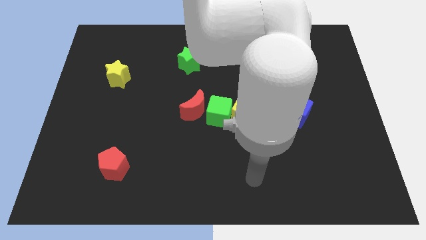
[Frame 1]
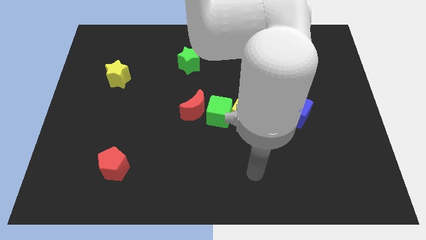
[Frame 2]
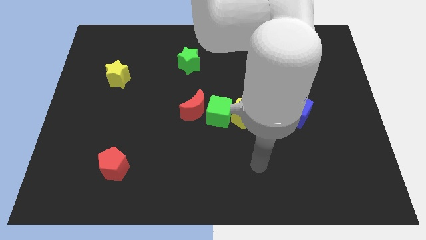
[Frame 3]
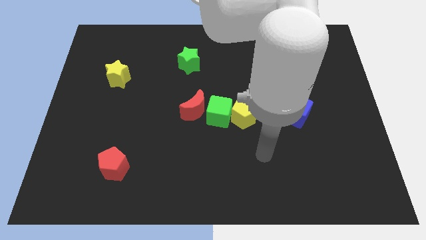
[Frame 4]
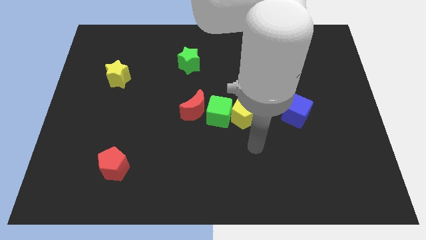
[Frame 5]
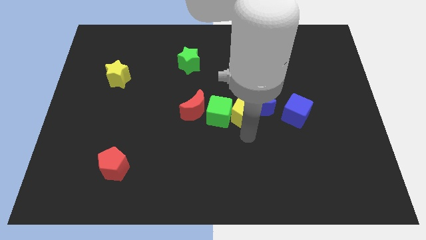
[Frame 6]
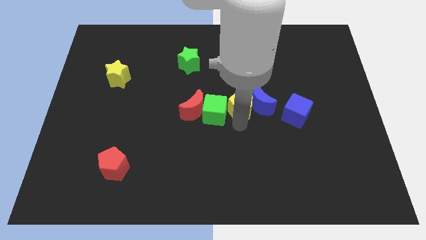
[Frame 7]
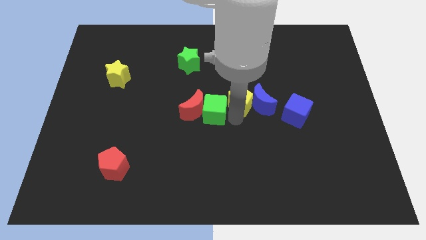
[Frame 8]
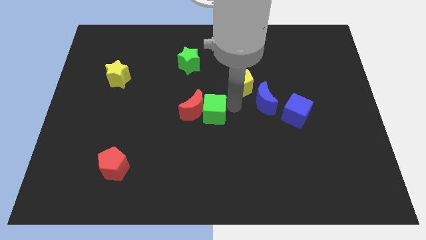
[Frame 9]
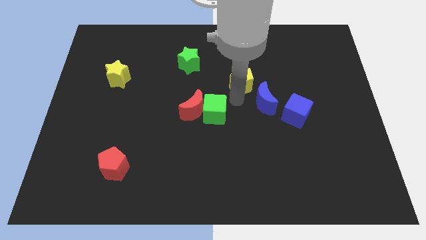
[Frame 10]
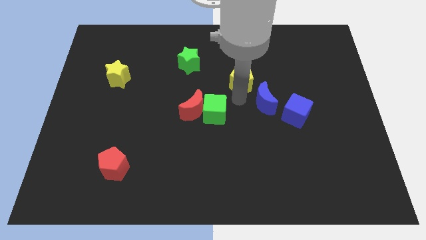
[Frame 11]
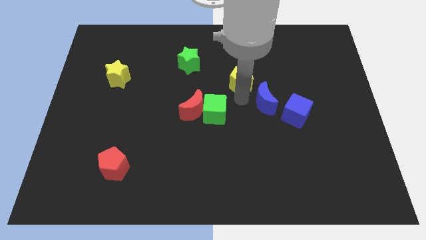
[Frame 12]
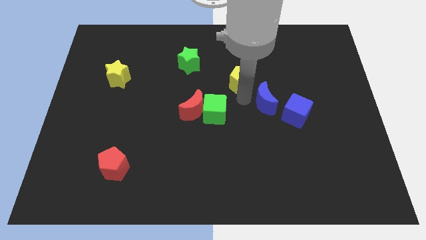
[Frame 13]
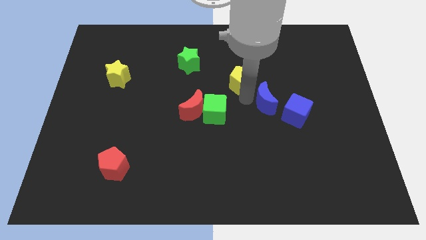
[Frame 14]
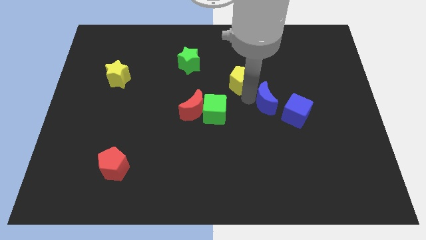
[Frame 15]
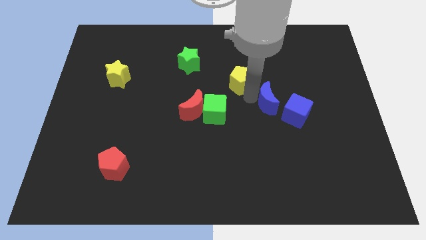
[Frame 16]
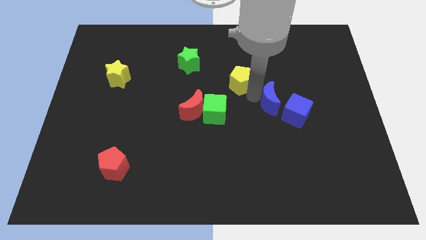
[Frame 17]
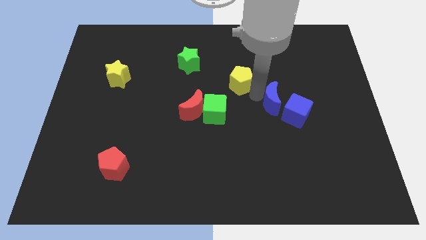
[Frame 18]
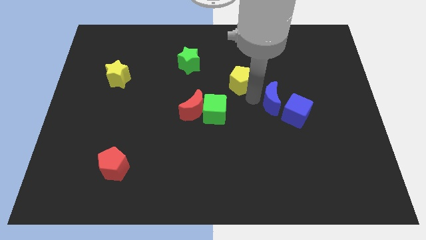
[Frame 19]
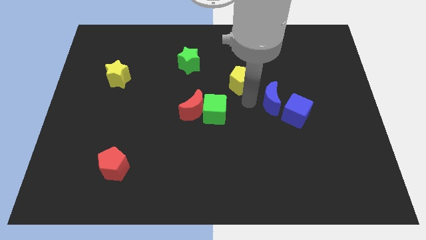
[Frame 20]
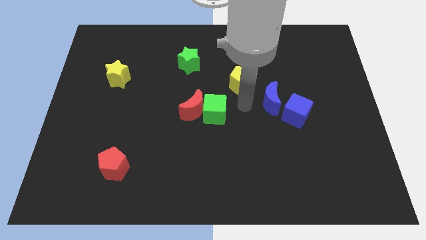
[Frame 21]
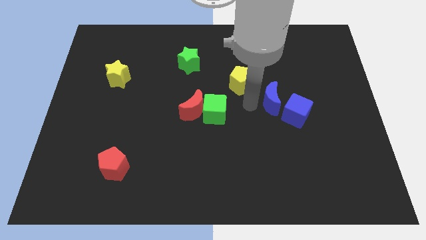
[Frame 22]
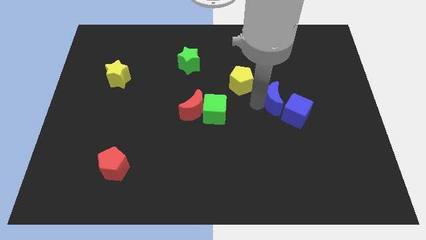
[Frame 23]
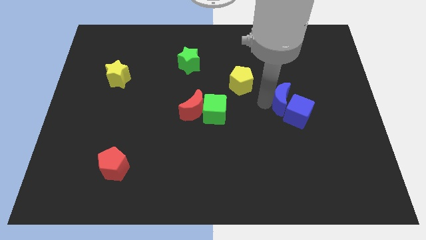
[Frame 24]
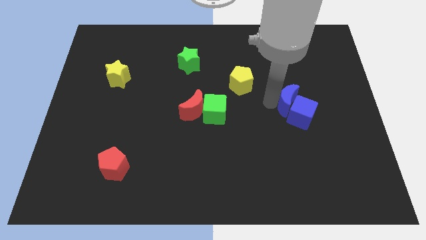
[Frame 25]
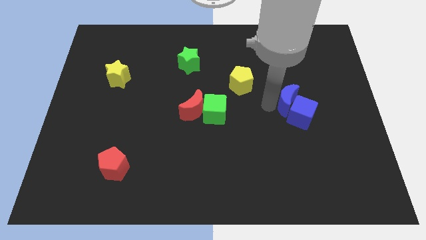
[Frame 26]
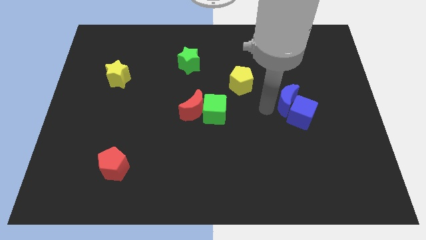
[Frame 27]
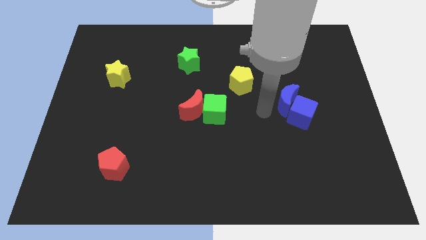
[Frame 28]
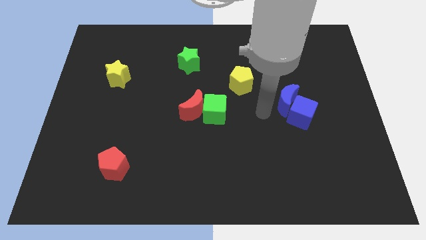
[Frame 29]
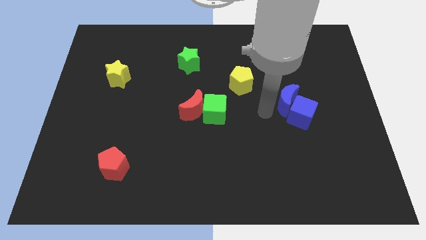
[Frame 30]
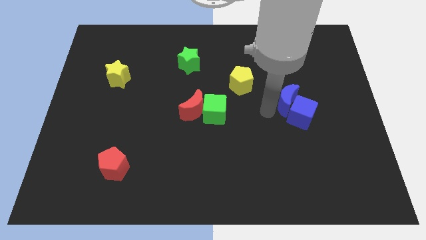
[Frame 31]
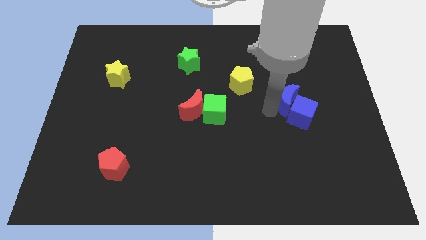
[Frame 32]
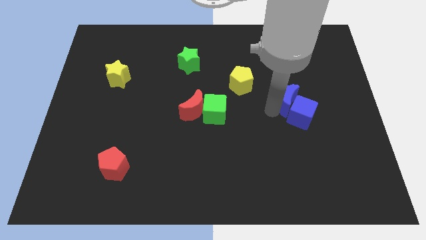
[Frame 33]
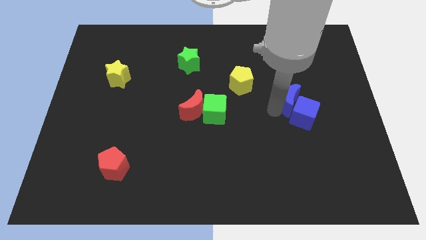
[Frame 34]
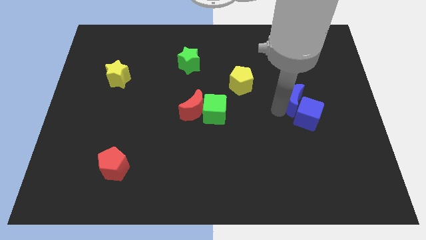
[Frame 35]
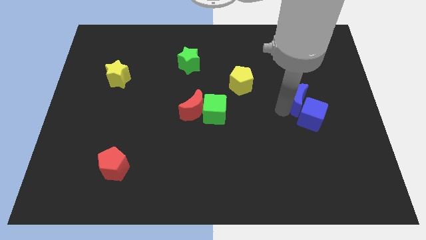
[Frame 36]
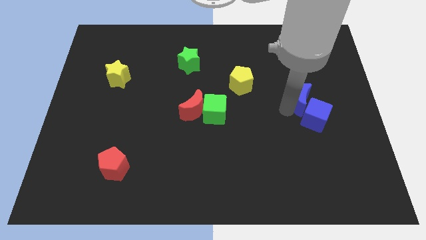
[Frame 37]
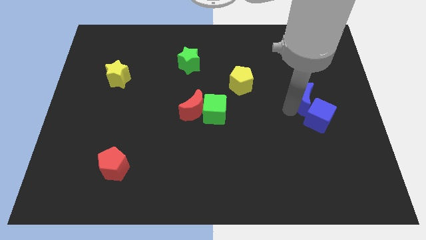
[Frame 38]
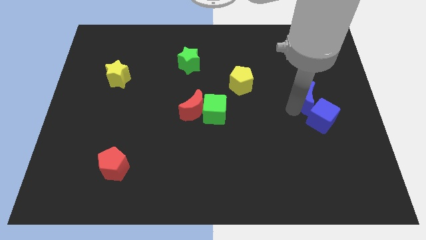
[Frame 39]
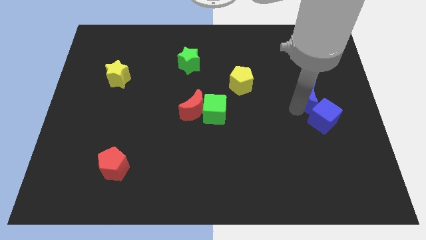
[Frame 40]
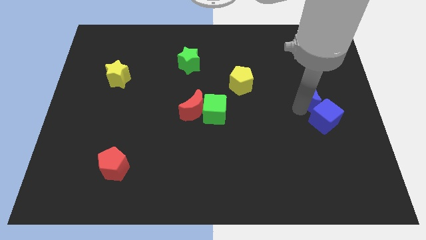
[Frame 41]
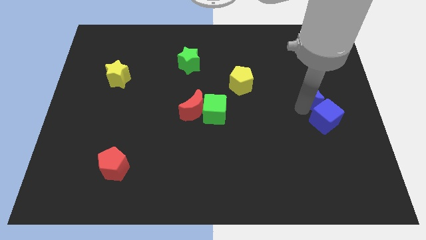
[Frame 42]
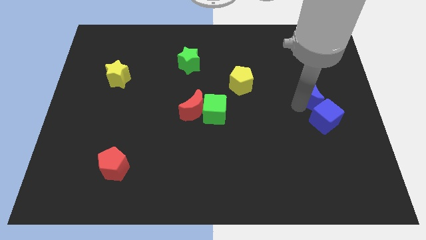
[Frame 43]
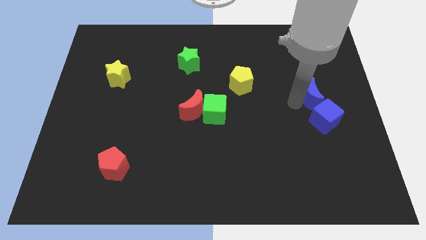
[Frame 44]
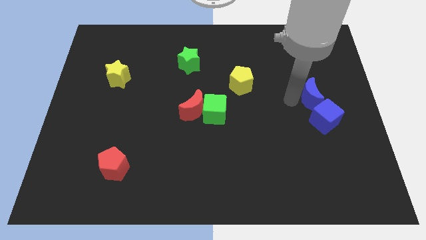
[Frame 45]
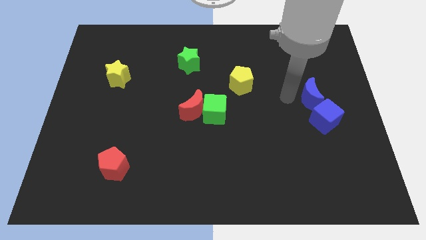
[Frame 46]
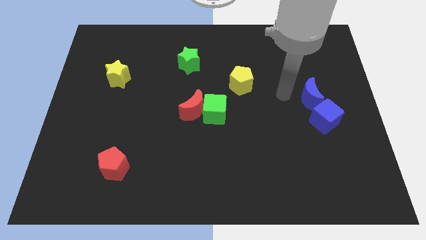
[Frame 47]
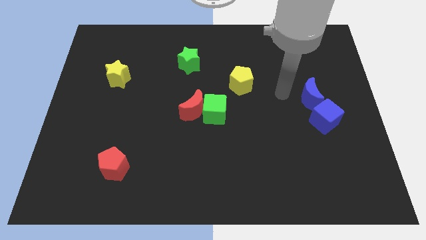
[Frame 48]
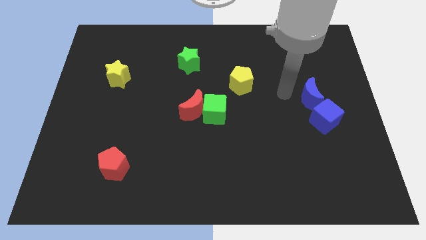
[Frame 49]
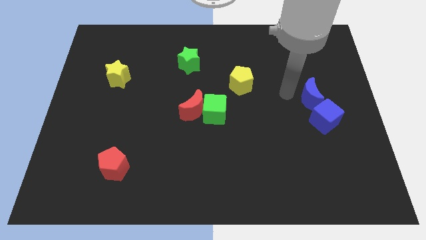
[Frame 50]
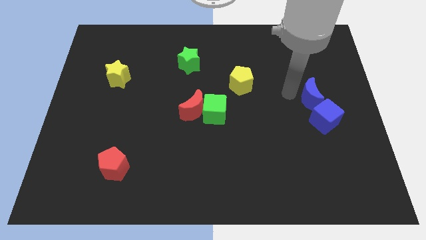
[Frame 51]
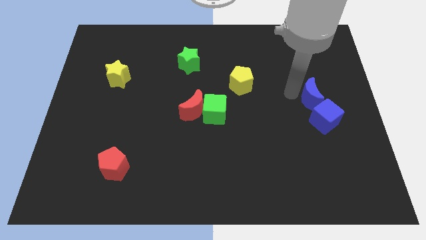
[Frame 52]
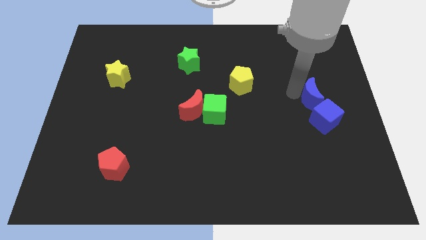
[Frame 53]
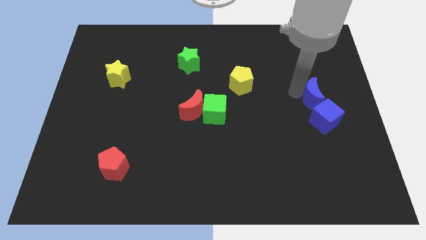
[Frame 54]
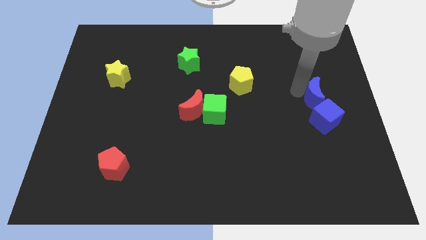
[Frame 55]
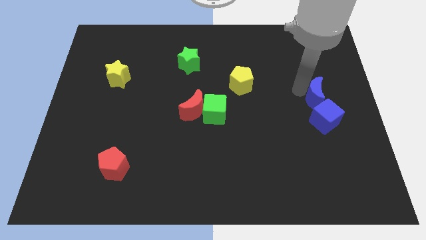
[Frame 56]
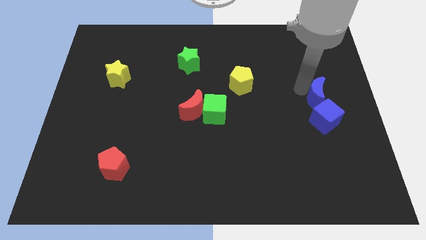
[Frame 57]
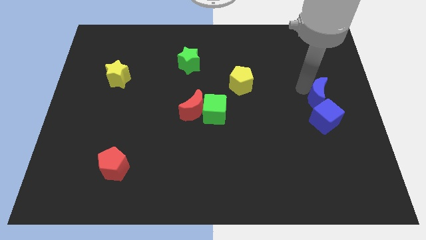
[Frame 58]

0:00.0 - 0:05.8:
move the blue moon to the right side

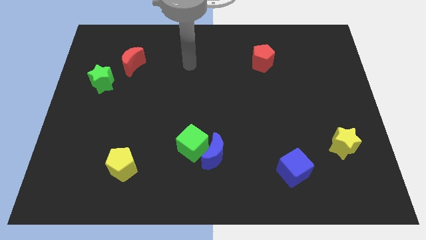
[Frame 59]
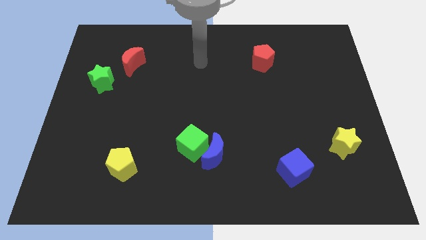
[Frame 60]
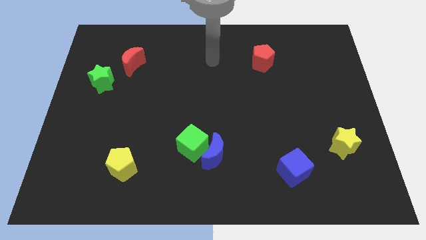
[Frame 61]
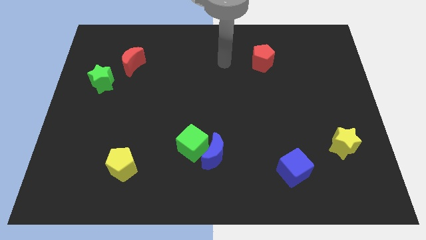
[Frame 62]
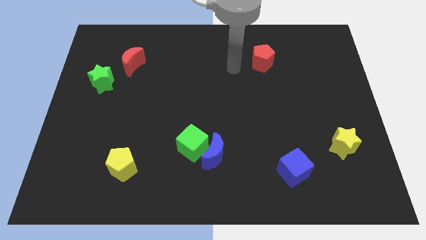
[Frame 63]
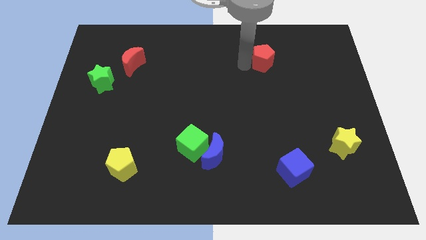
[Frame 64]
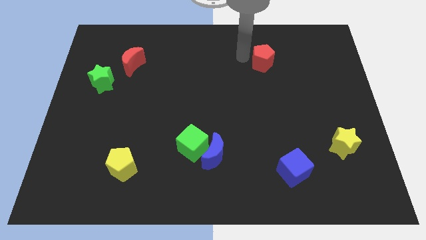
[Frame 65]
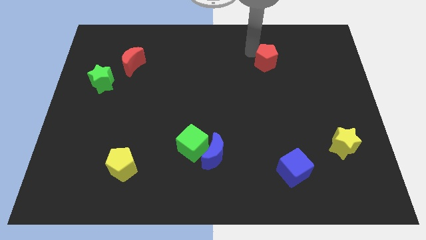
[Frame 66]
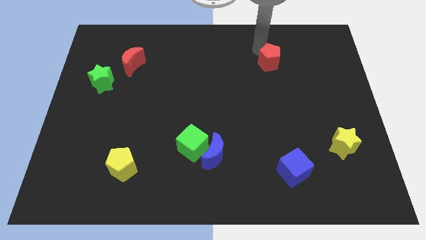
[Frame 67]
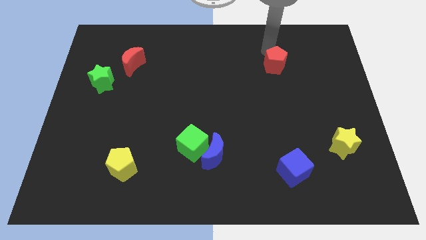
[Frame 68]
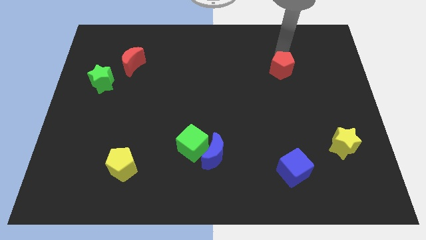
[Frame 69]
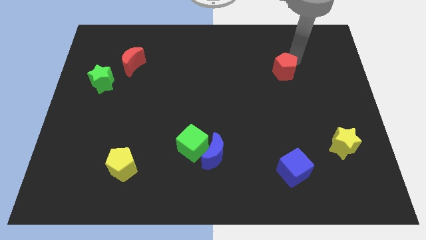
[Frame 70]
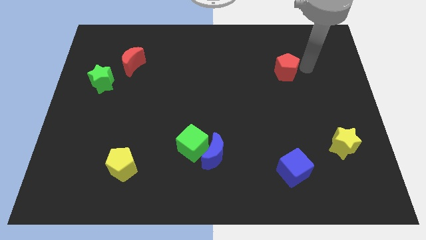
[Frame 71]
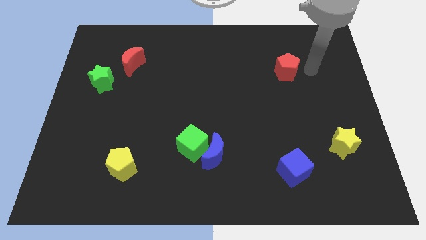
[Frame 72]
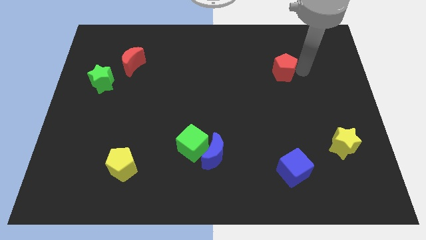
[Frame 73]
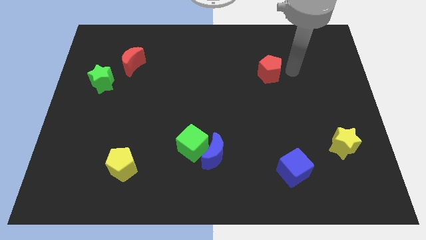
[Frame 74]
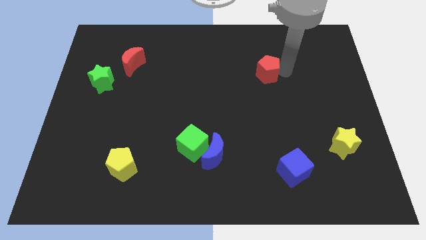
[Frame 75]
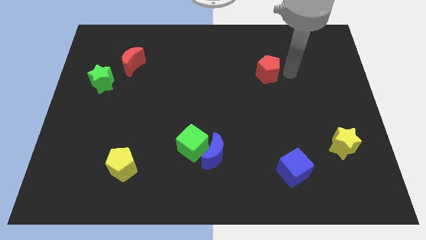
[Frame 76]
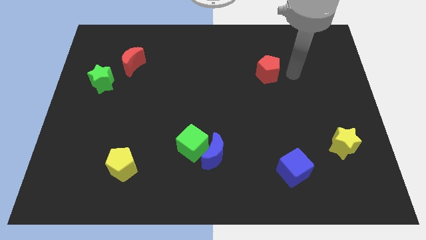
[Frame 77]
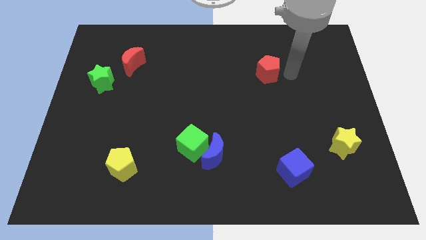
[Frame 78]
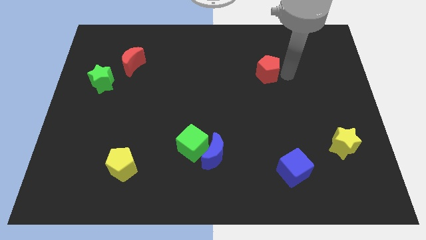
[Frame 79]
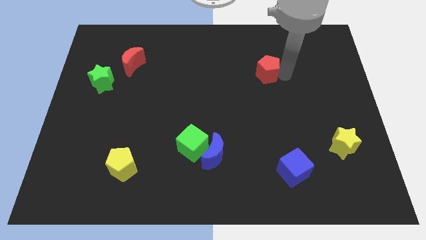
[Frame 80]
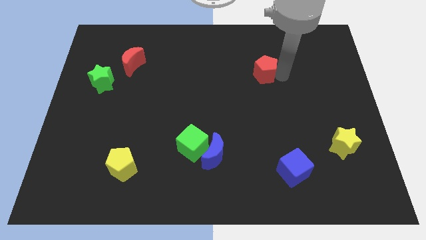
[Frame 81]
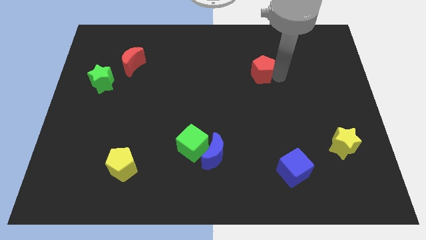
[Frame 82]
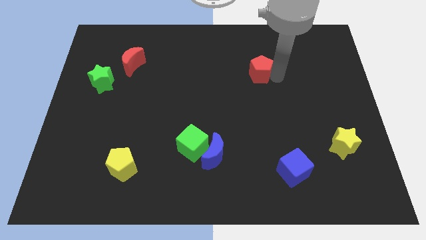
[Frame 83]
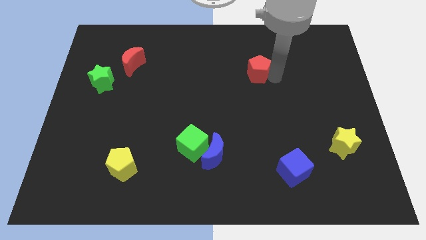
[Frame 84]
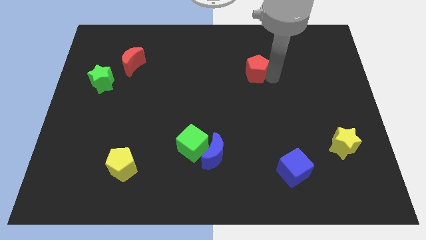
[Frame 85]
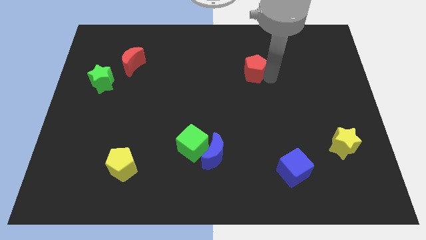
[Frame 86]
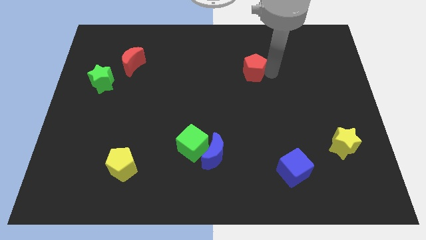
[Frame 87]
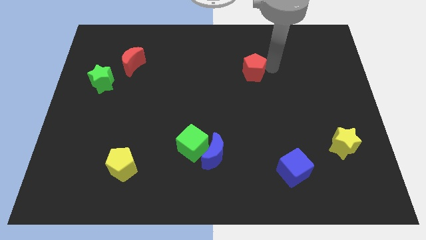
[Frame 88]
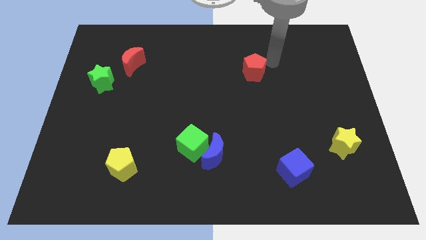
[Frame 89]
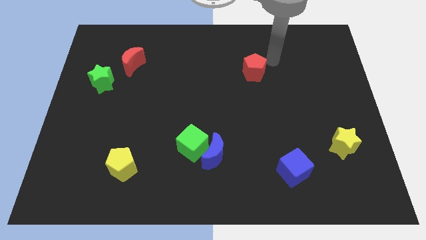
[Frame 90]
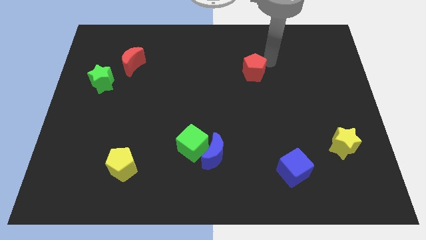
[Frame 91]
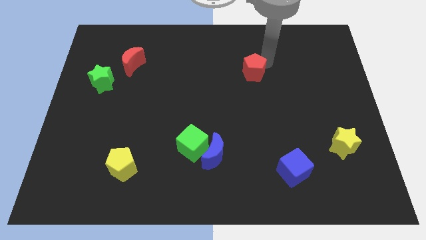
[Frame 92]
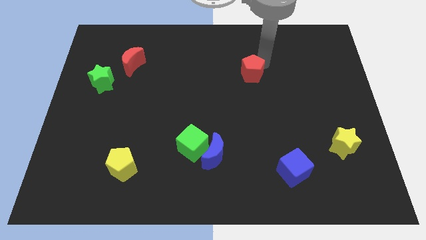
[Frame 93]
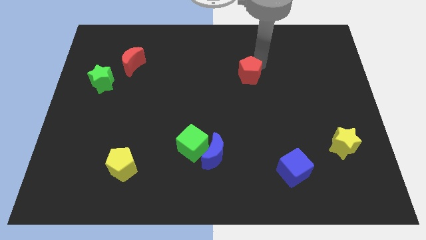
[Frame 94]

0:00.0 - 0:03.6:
push the red pentagon to the center
